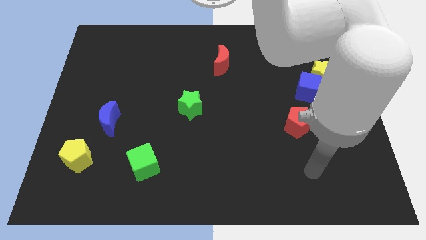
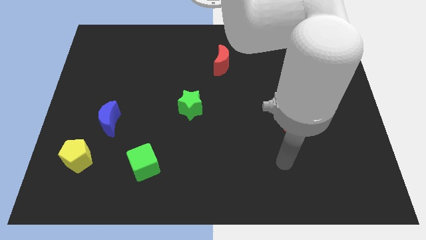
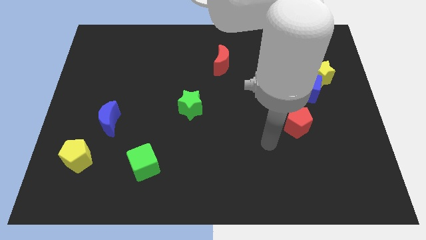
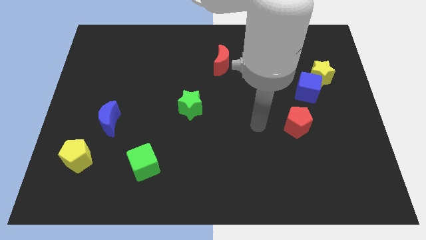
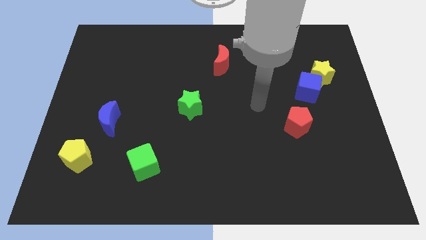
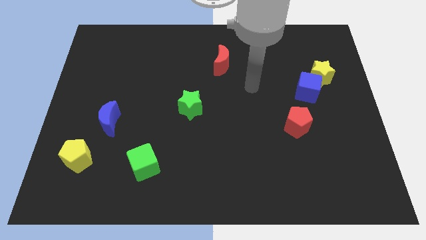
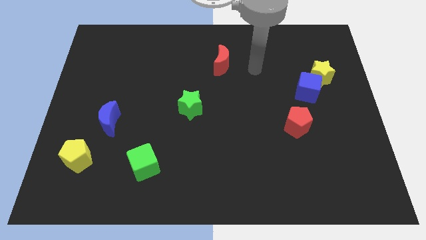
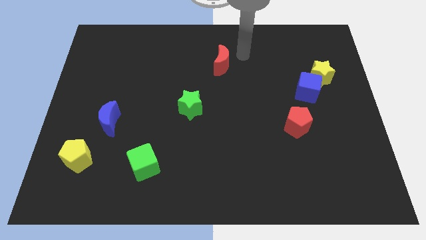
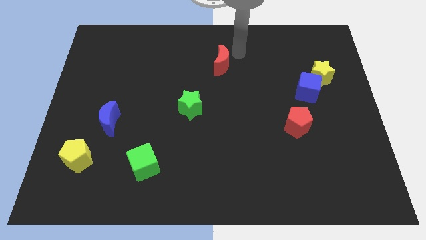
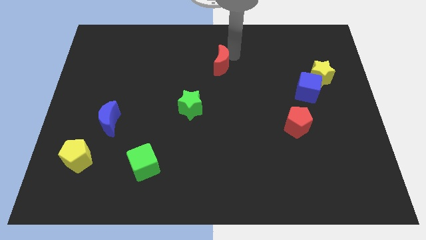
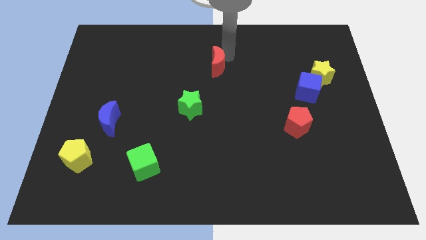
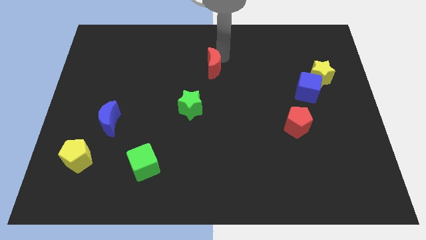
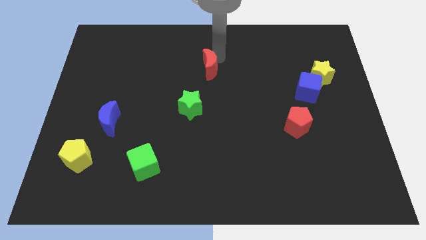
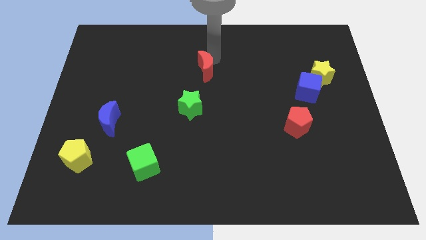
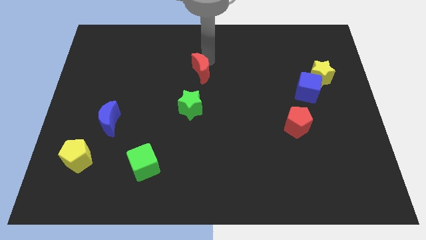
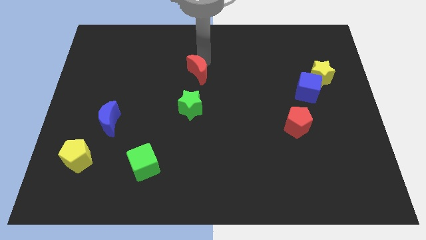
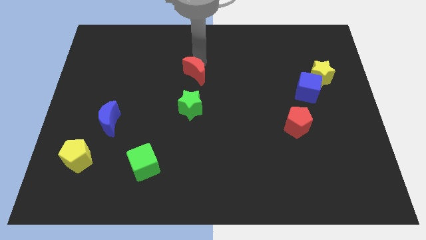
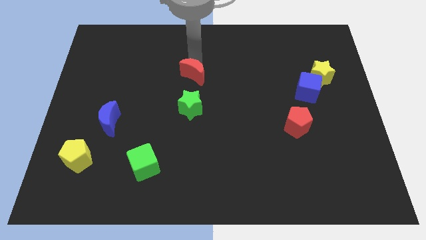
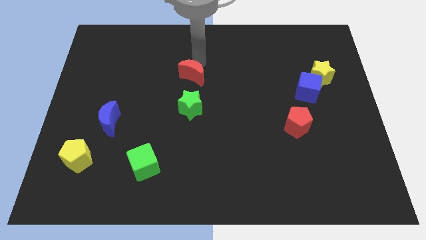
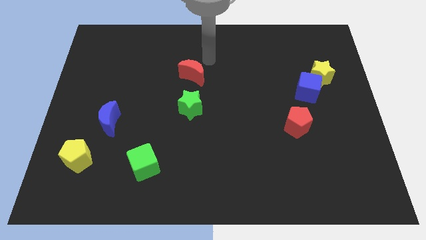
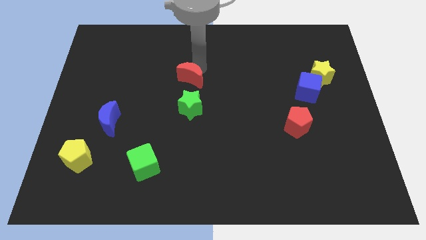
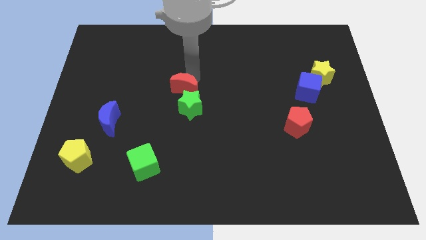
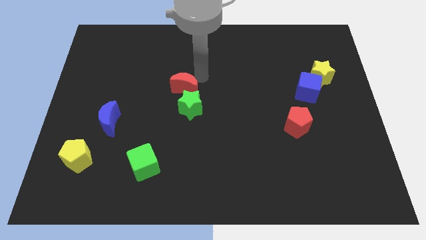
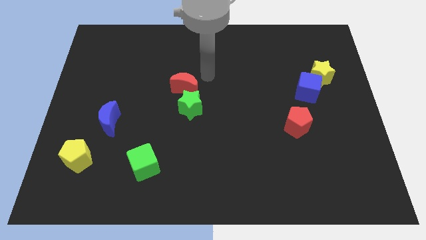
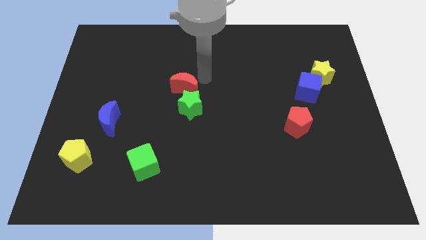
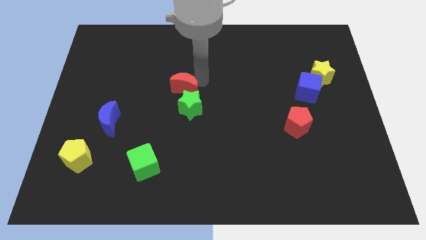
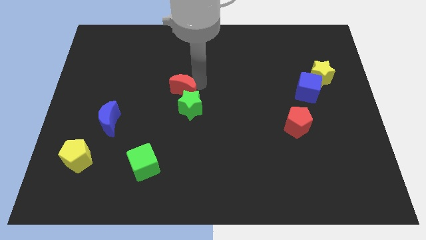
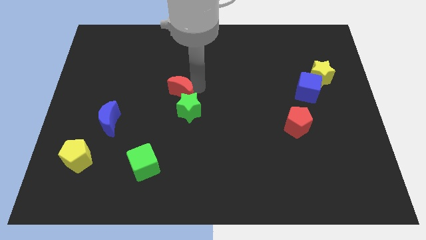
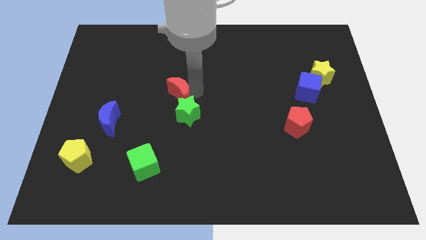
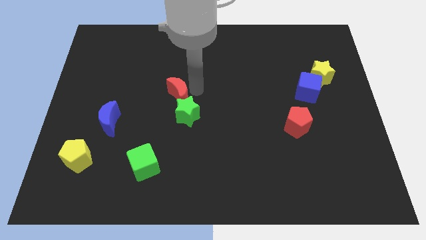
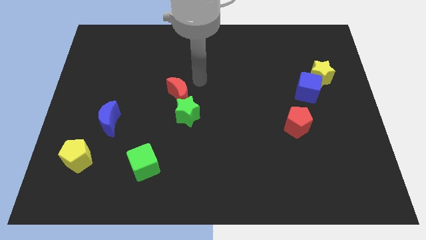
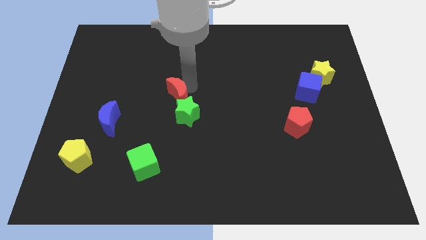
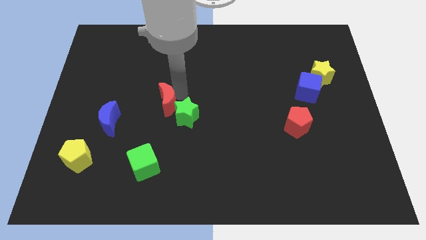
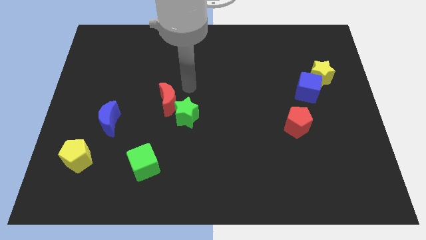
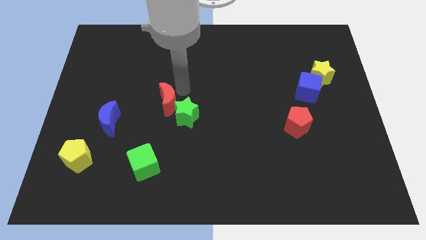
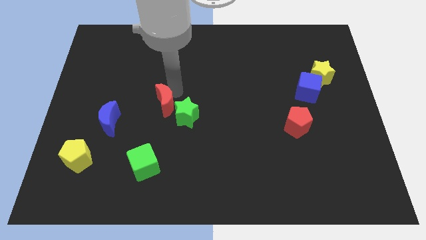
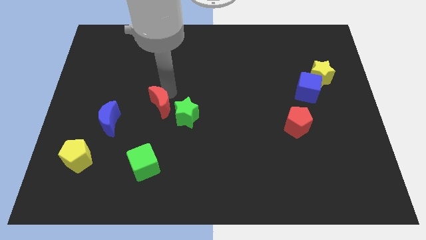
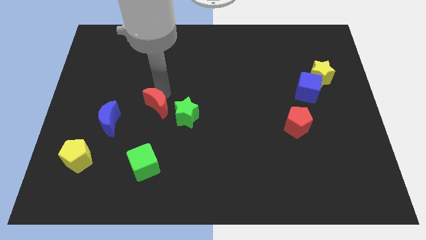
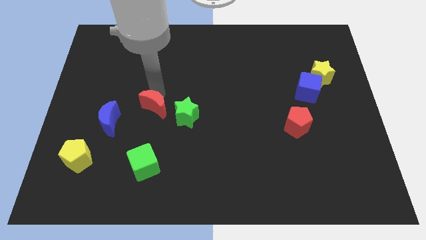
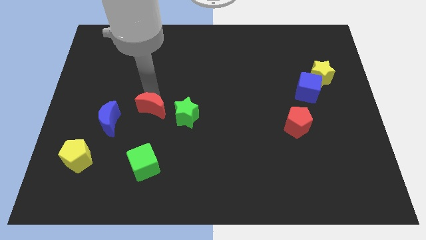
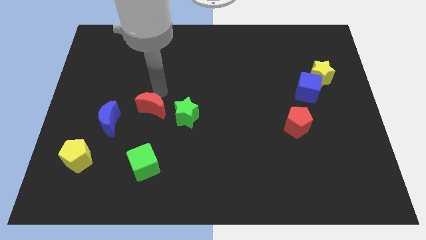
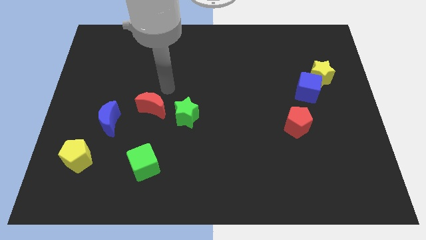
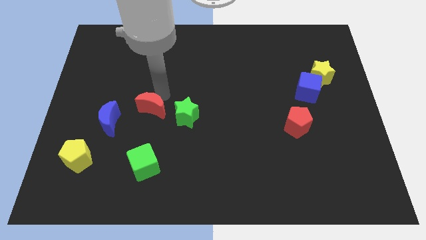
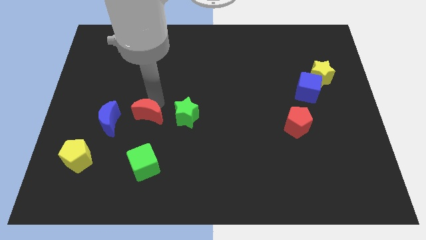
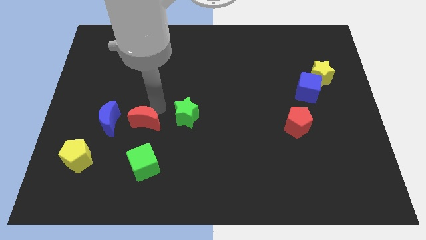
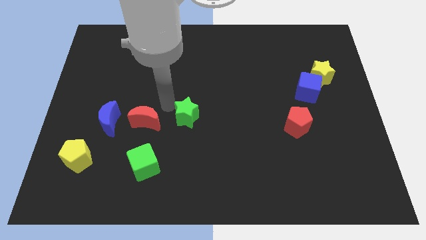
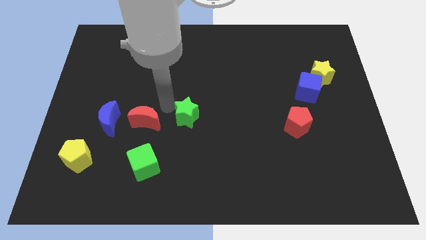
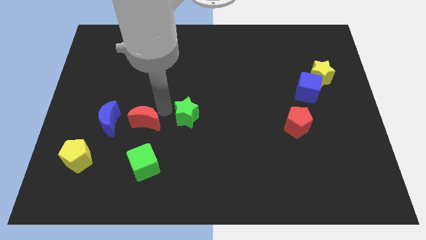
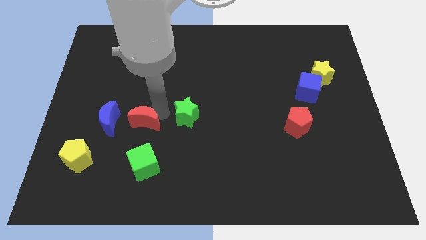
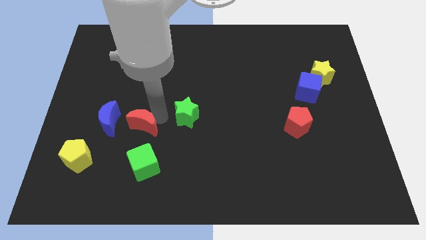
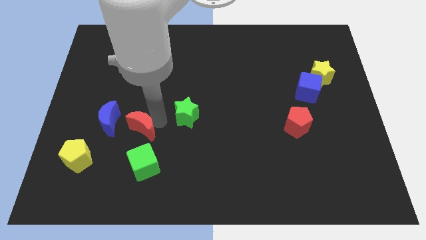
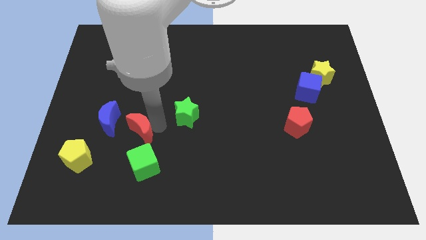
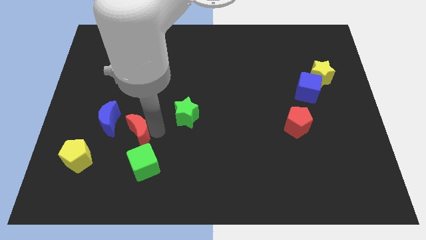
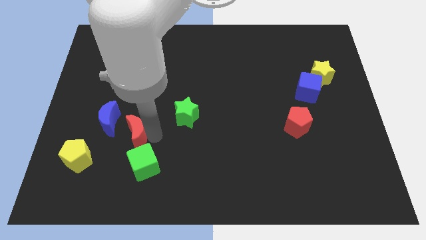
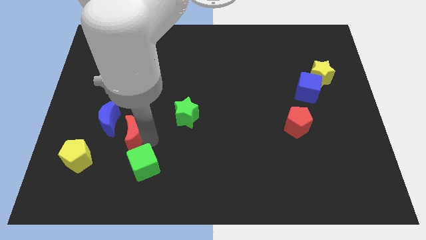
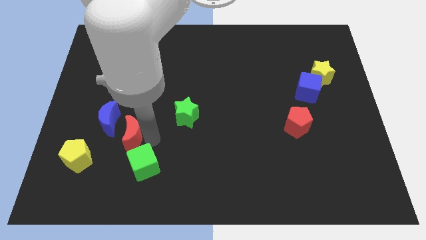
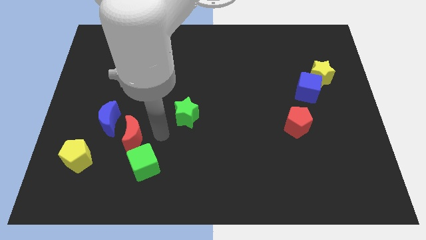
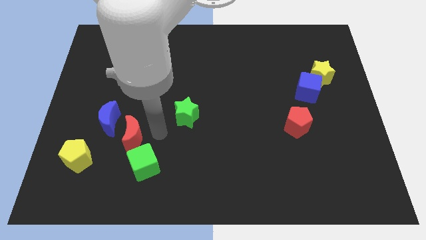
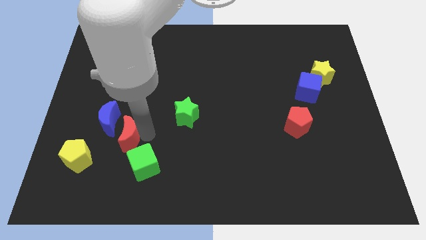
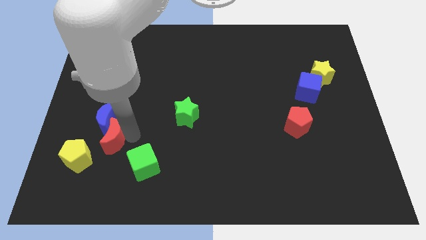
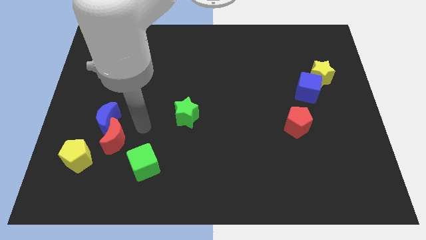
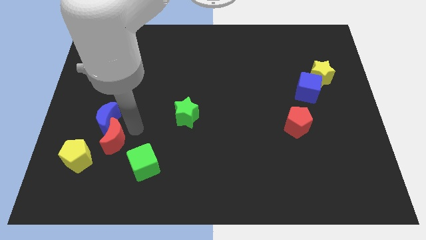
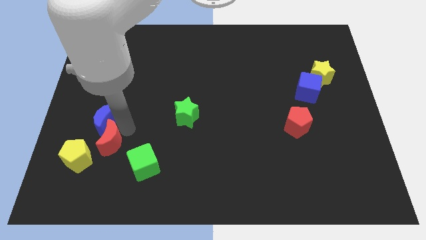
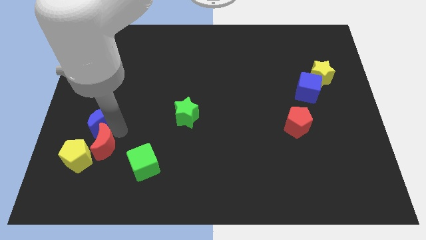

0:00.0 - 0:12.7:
move the red moon towards the yellow pentagon

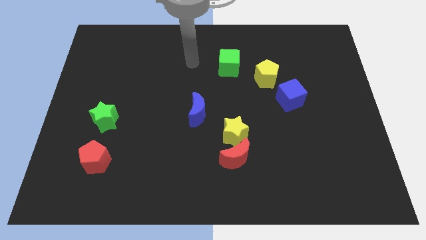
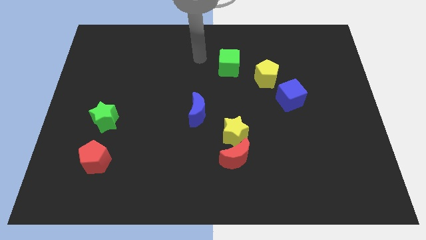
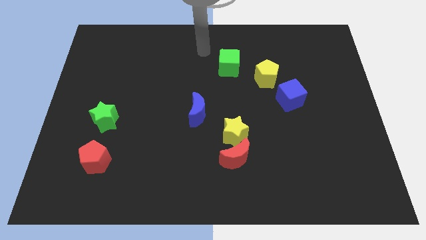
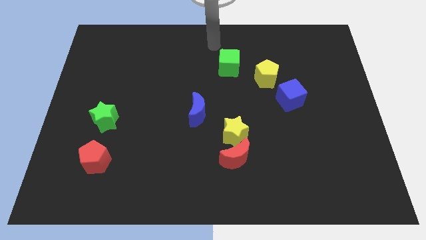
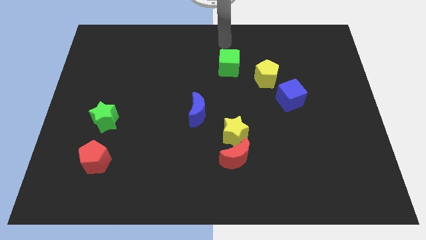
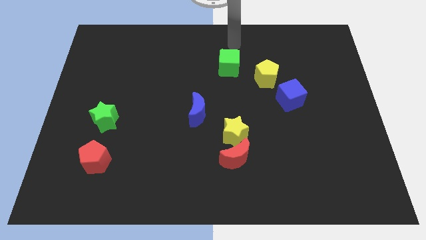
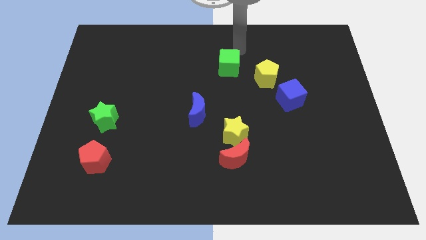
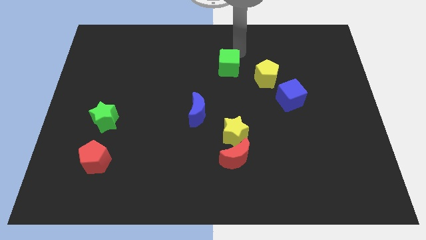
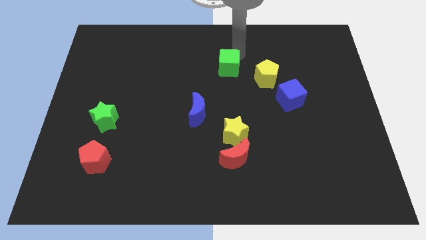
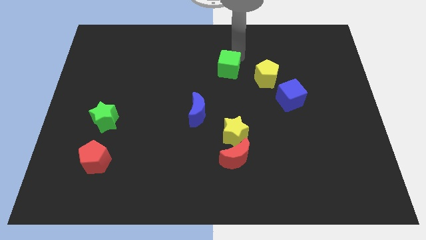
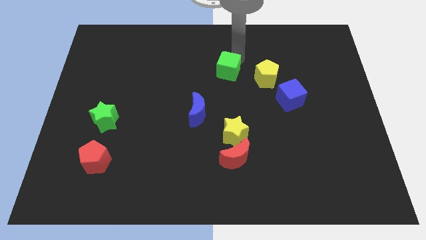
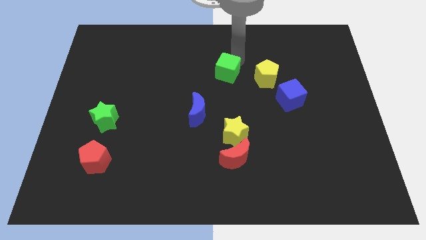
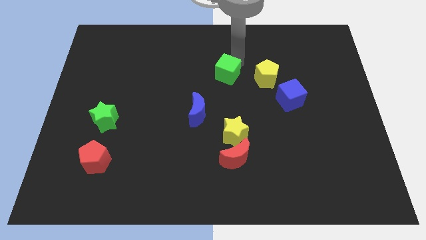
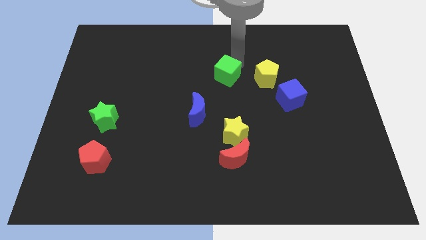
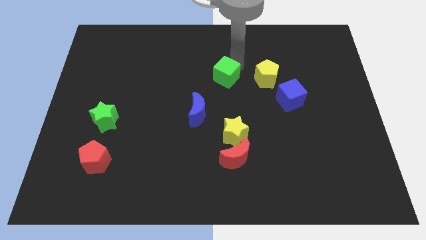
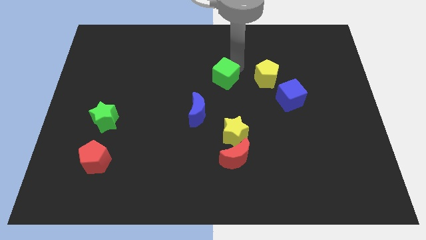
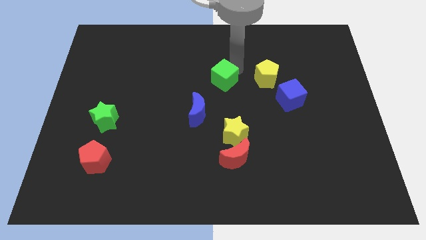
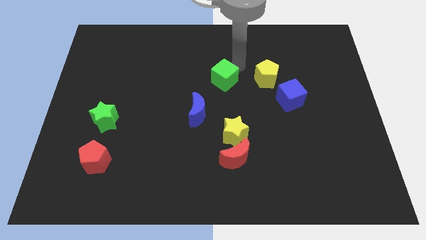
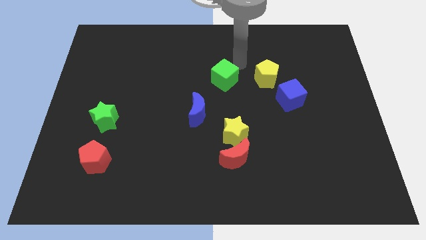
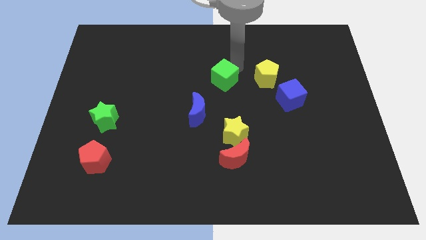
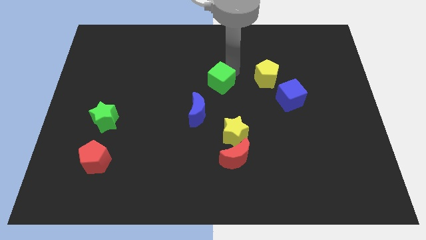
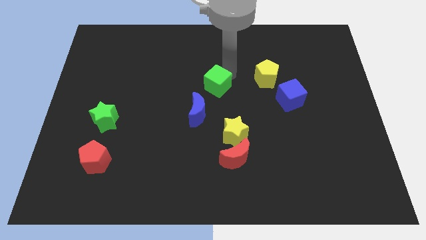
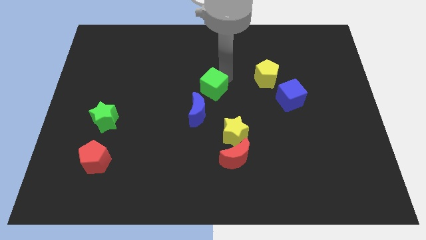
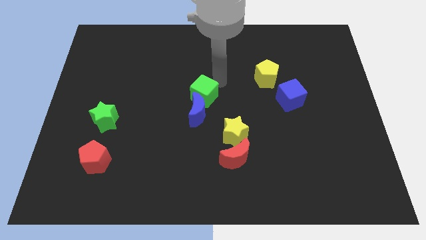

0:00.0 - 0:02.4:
put the green cube towards the blue moon
